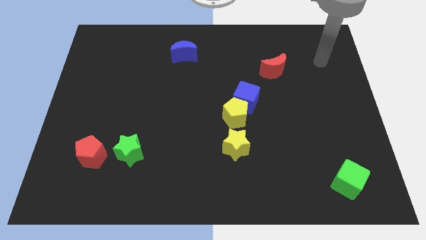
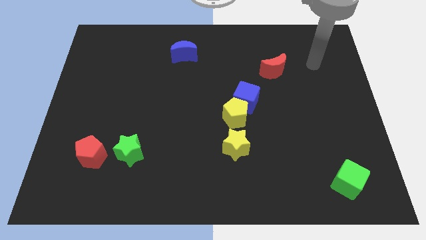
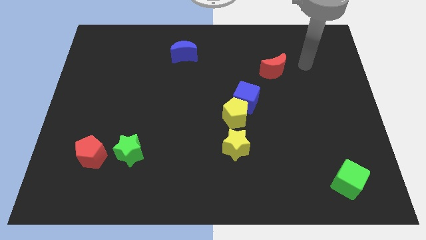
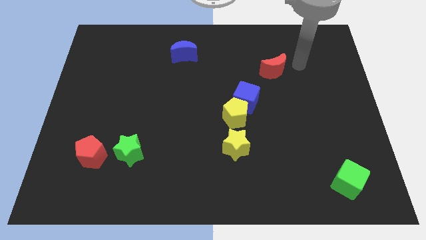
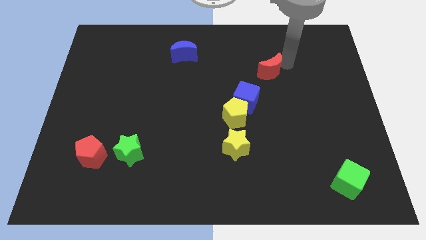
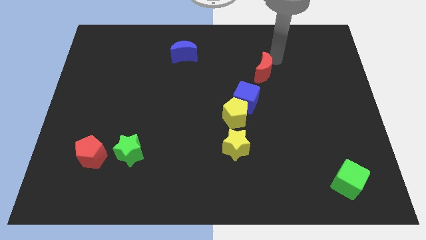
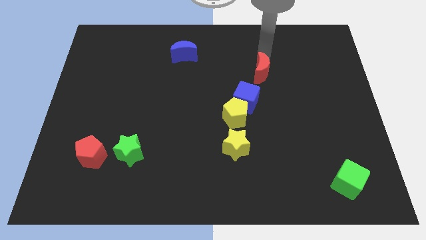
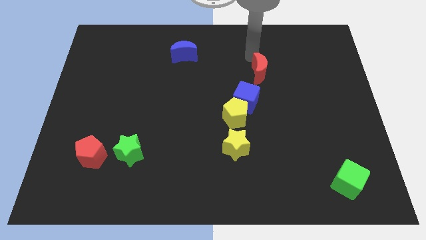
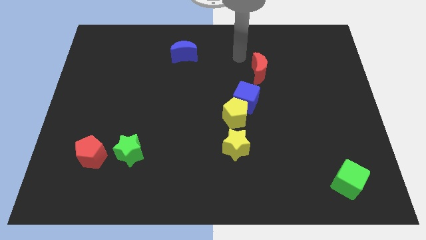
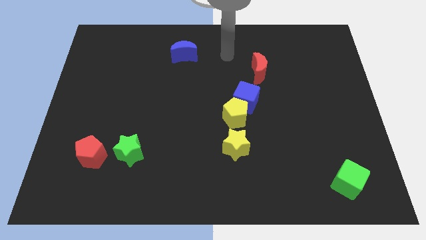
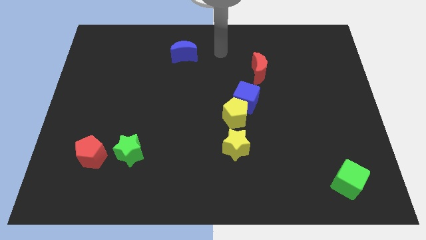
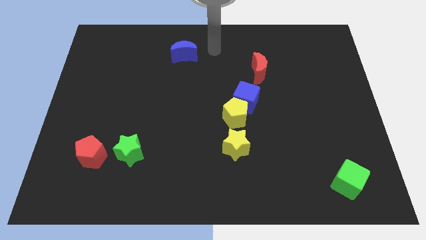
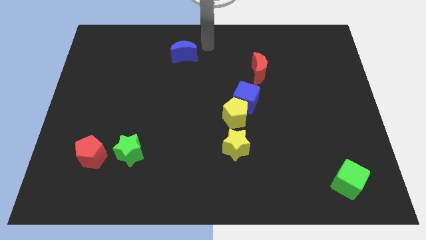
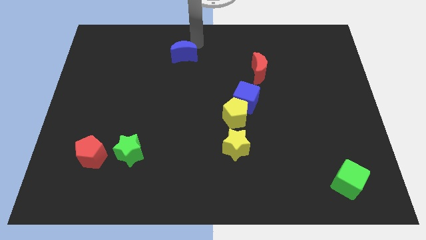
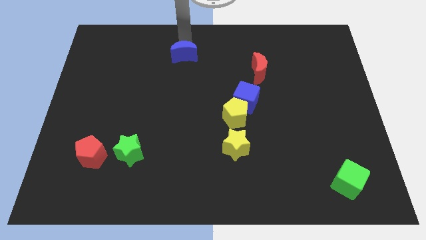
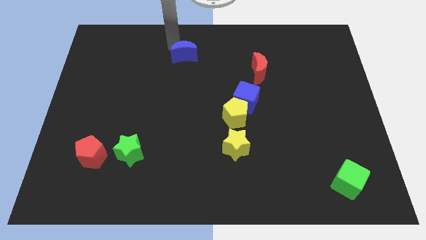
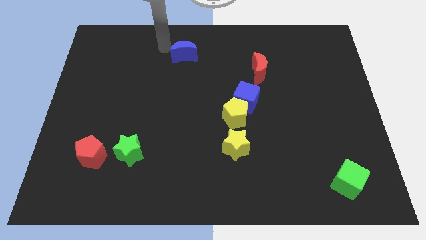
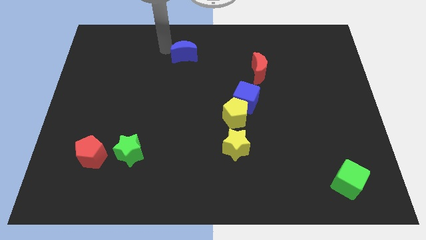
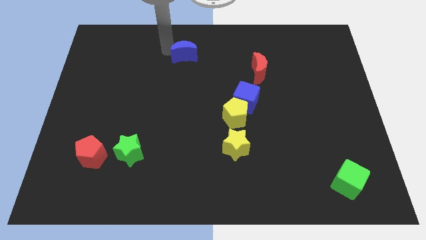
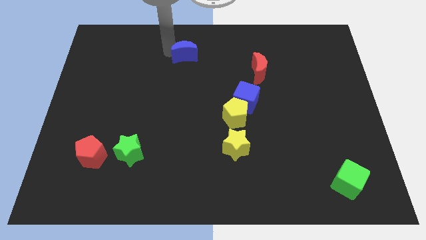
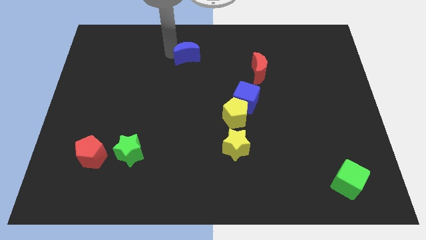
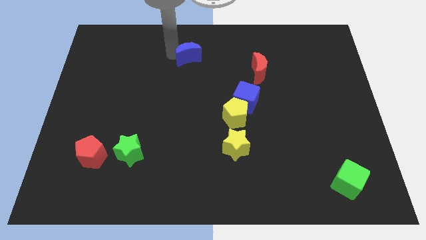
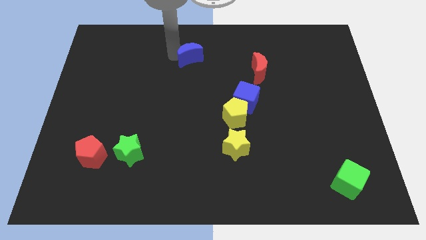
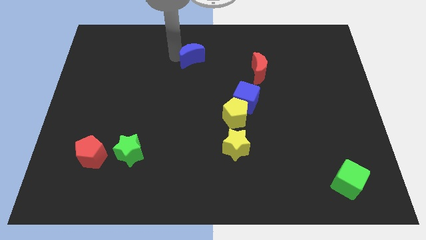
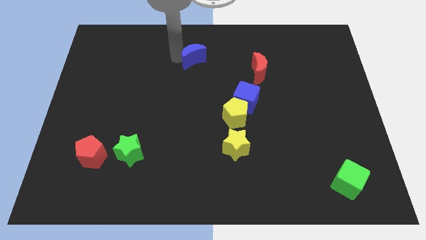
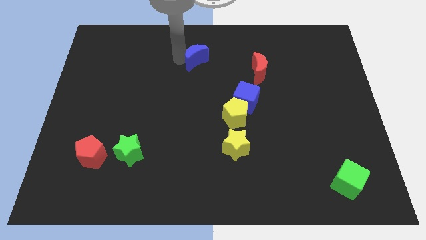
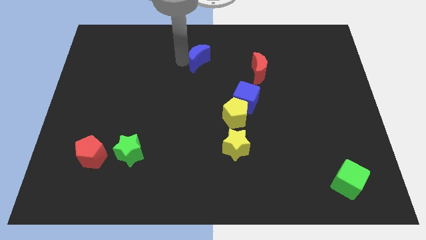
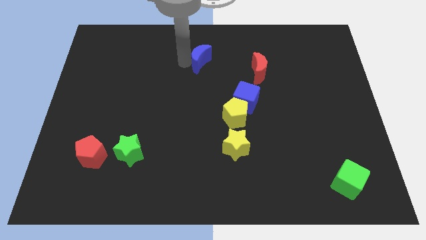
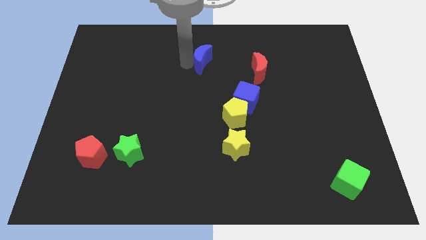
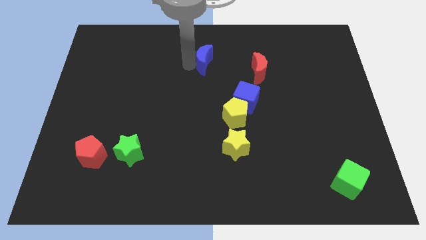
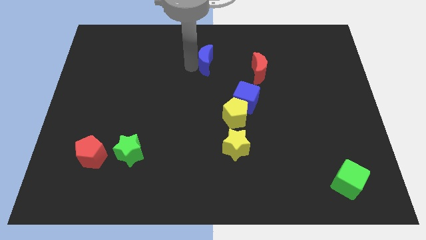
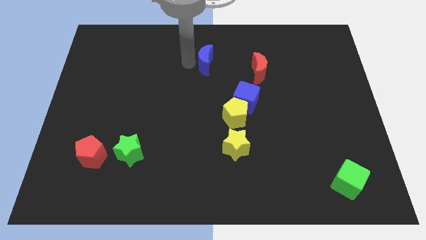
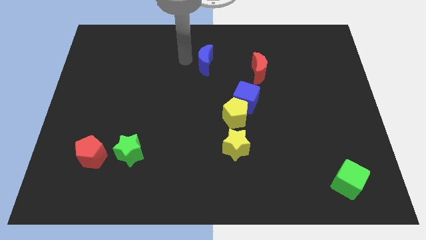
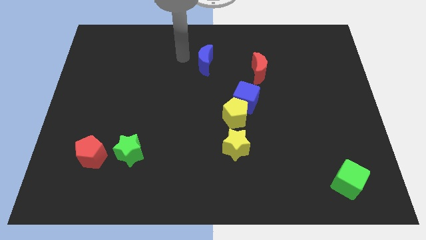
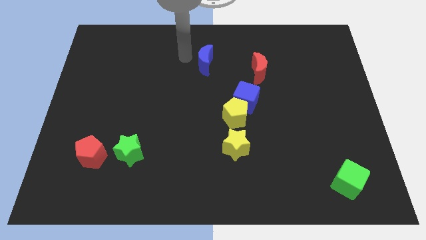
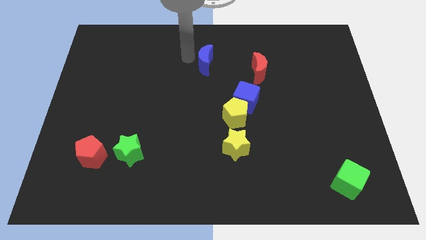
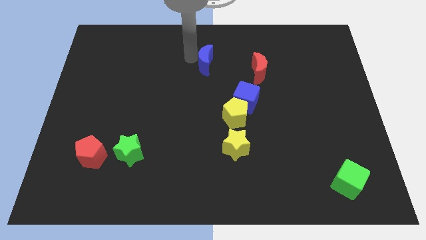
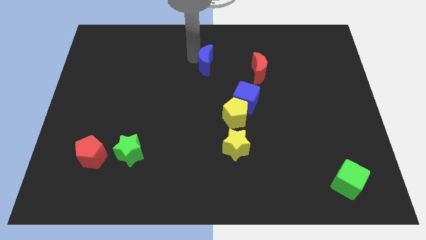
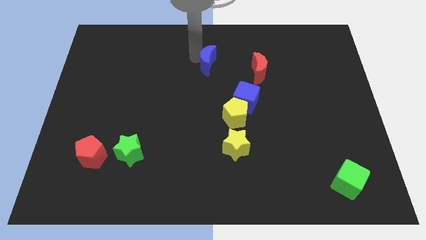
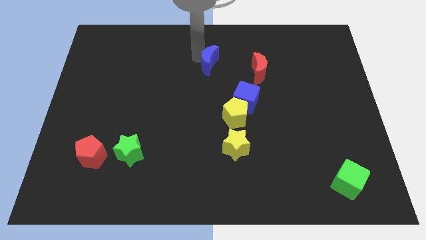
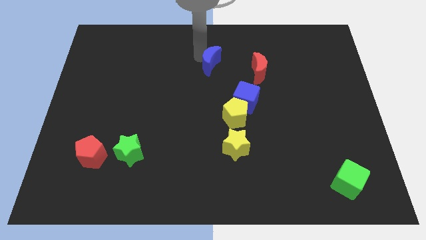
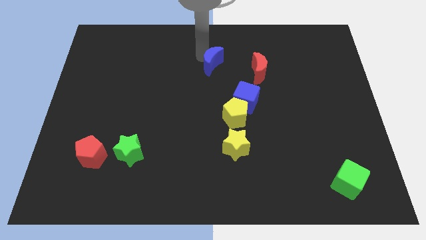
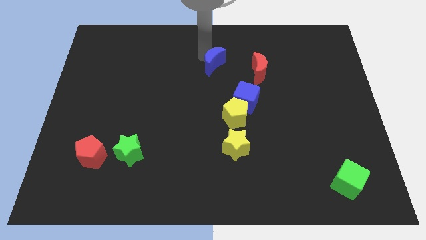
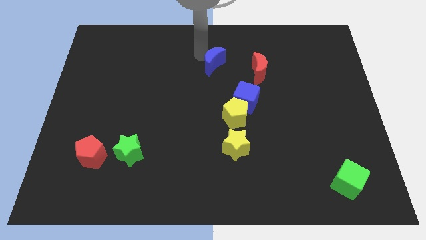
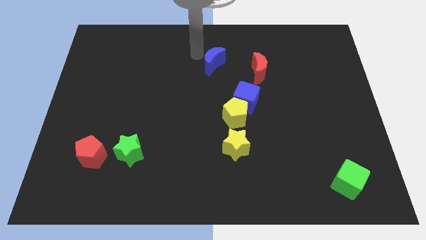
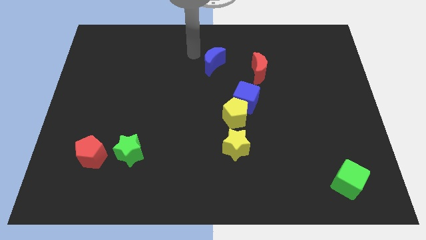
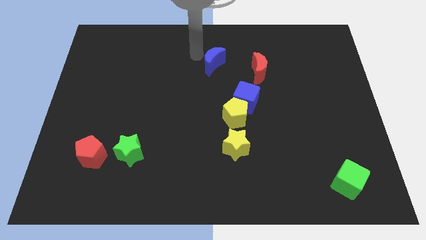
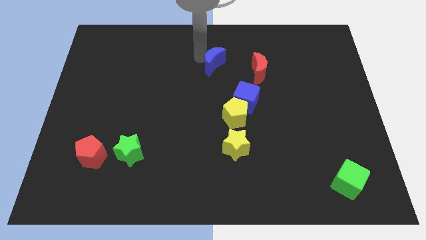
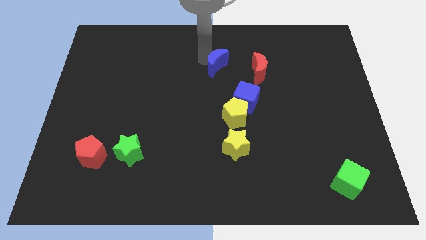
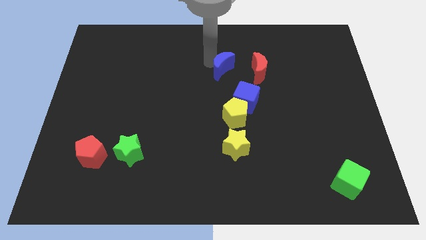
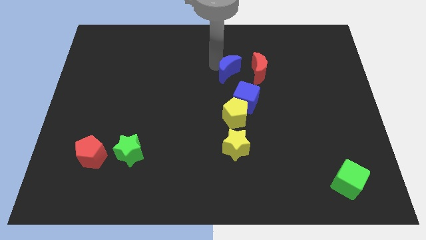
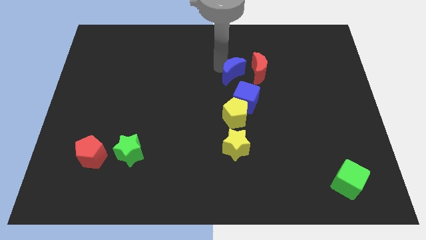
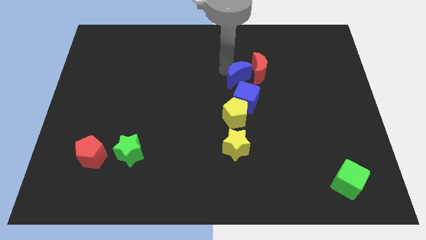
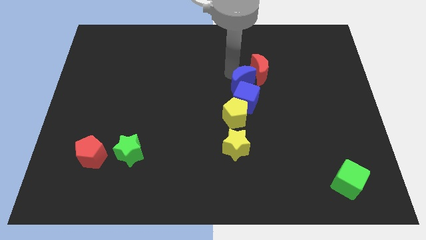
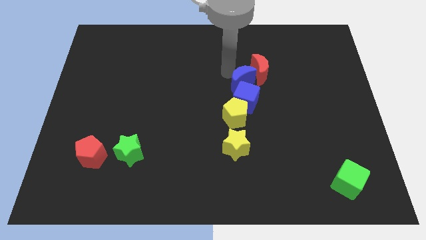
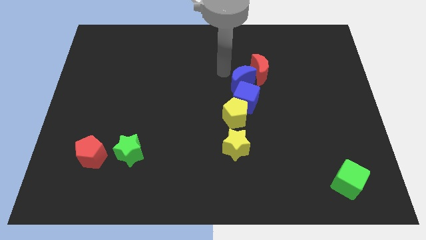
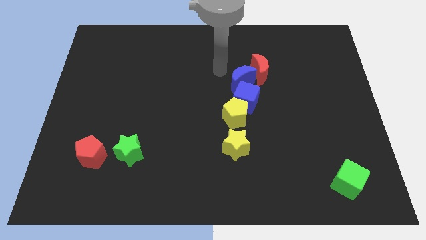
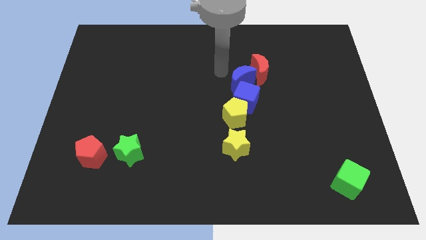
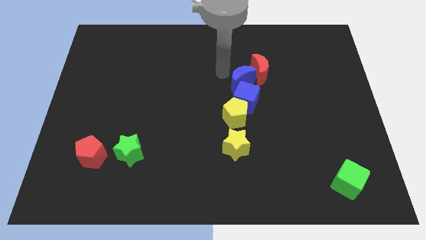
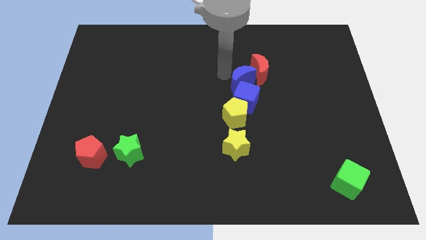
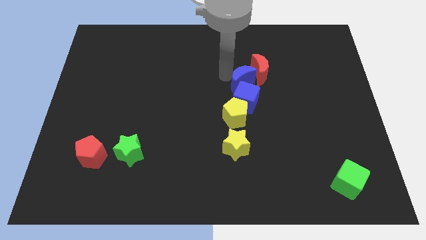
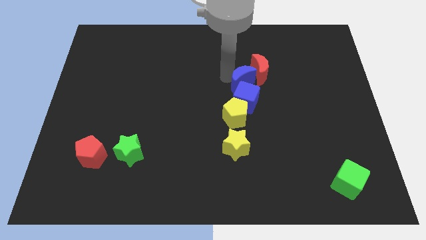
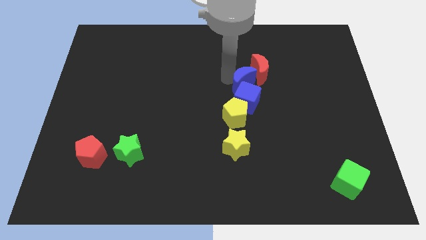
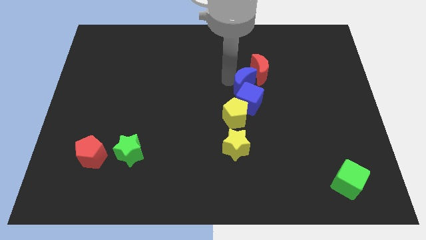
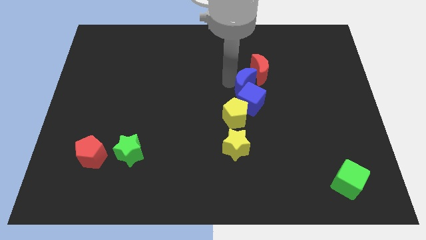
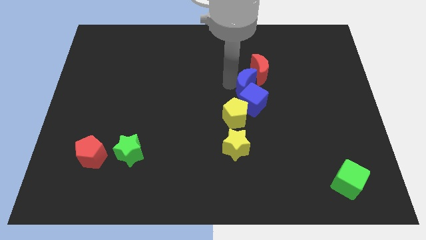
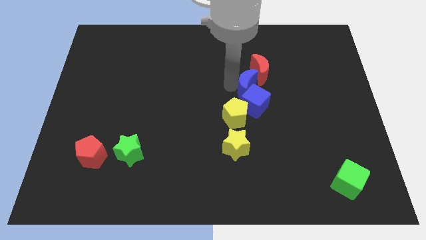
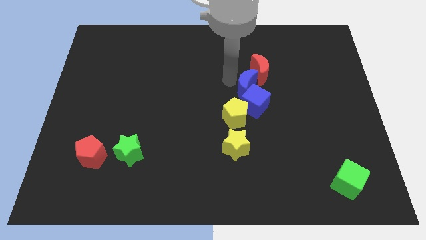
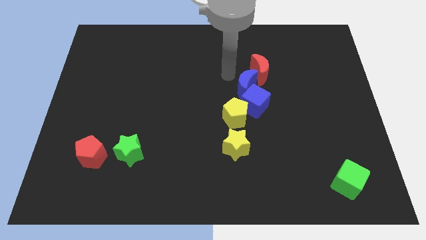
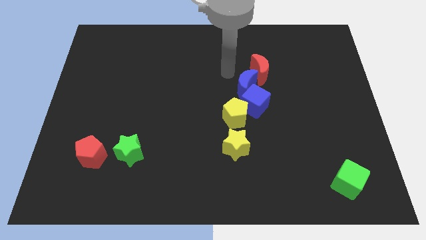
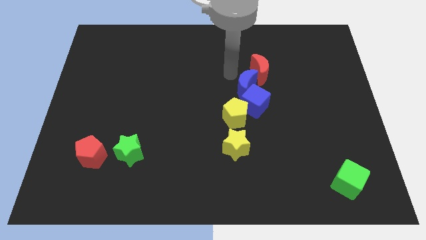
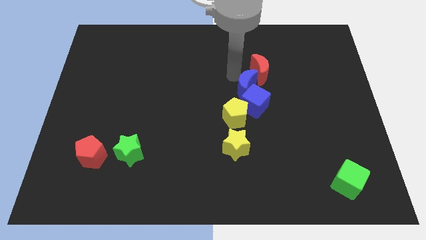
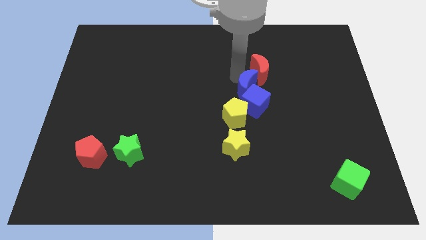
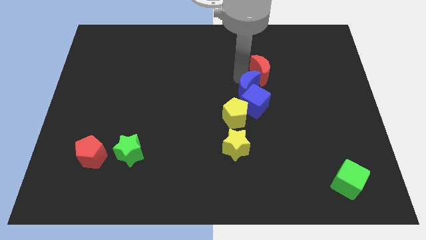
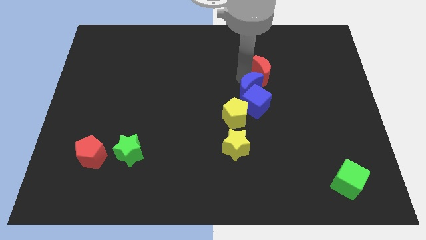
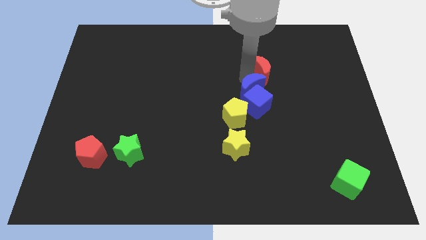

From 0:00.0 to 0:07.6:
move the blue moon downwards and to the right diagonally

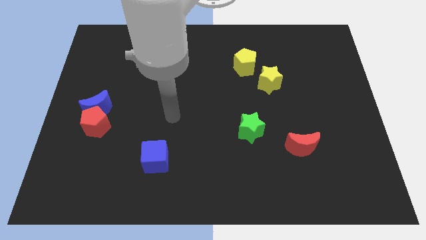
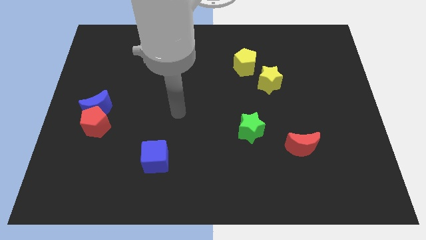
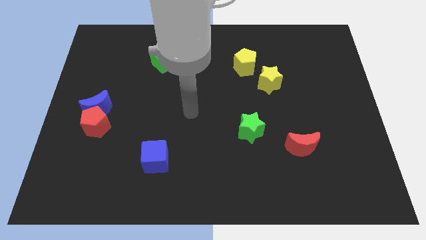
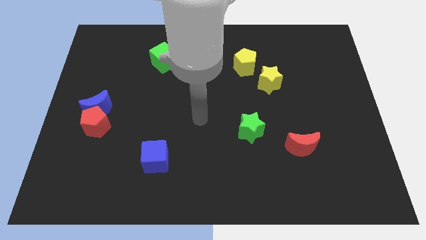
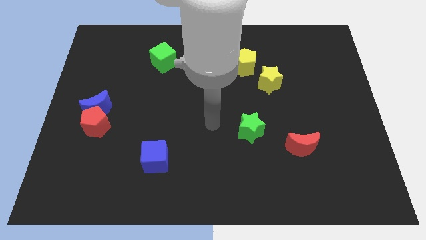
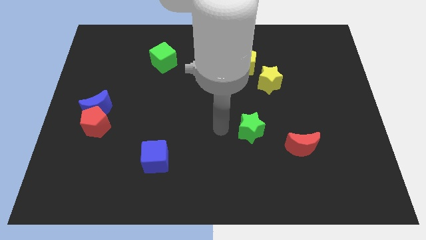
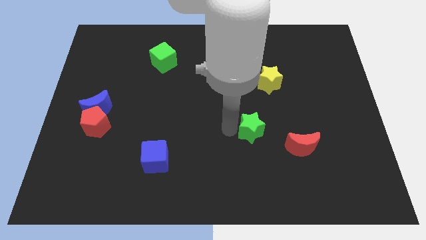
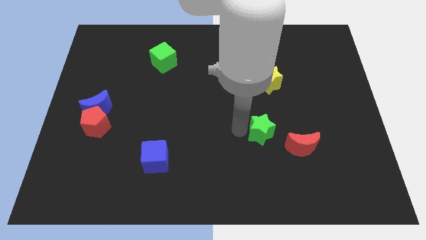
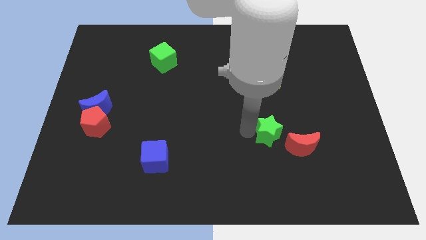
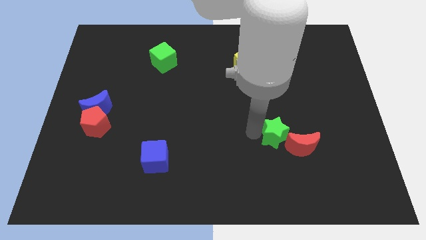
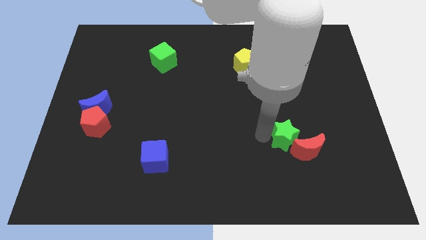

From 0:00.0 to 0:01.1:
push the green star a little to the right

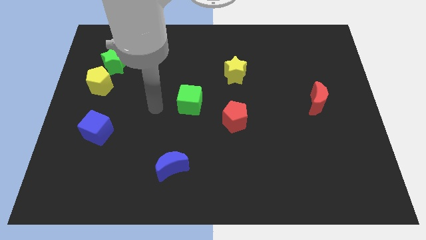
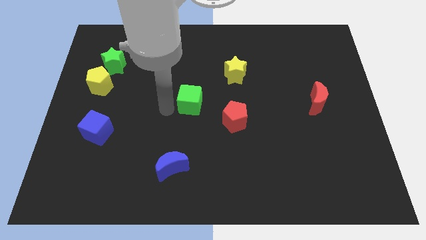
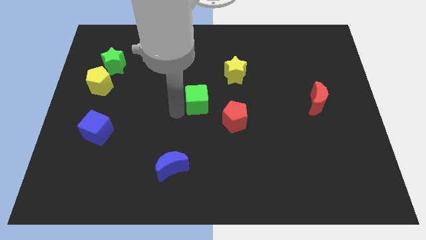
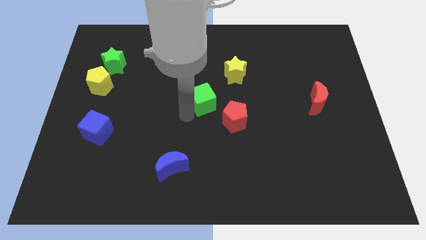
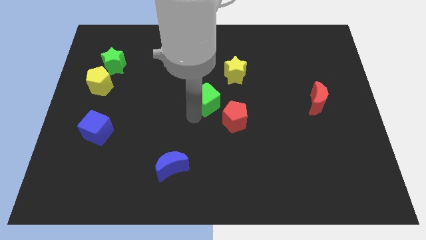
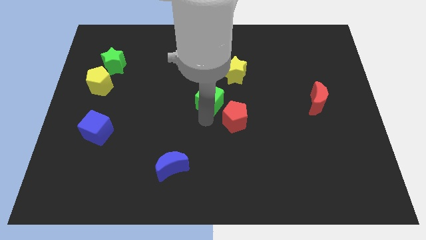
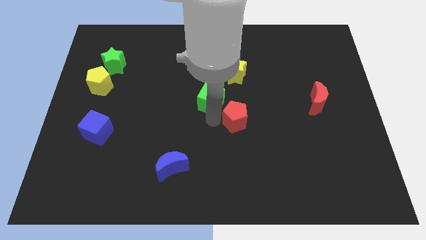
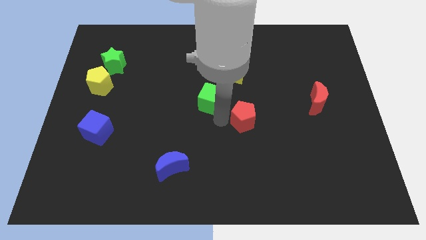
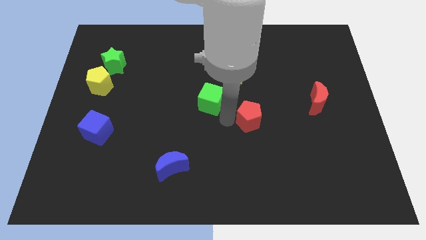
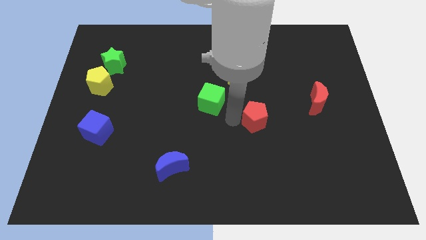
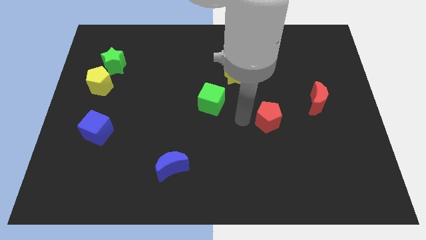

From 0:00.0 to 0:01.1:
slightly move the red pentagon right
